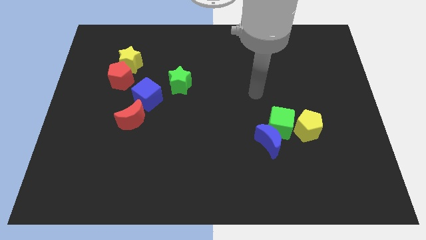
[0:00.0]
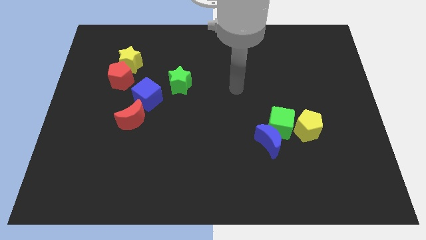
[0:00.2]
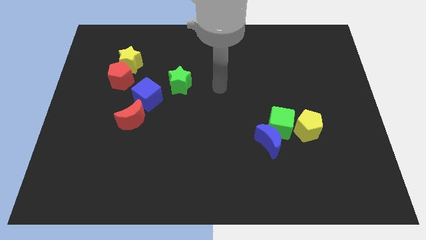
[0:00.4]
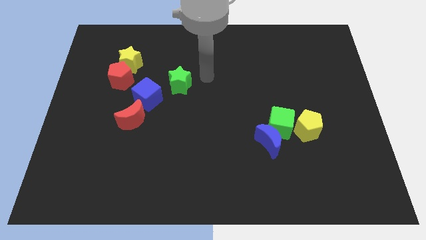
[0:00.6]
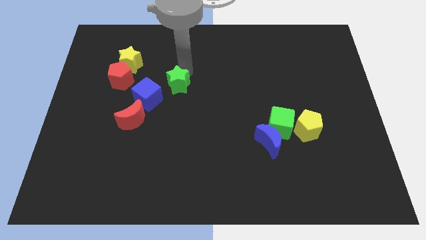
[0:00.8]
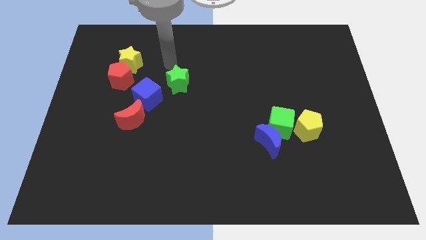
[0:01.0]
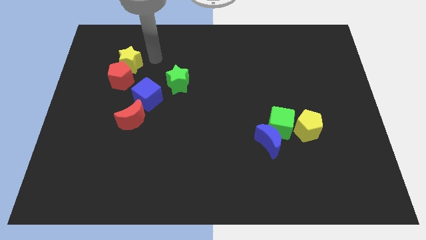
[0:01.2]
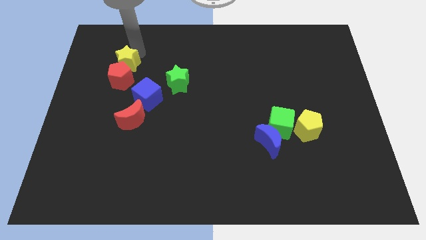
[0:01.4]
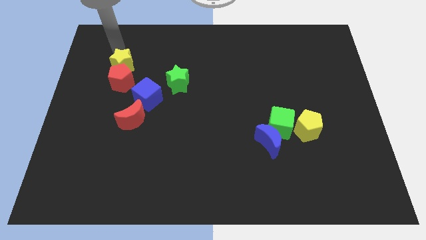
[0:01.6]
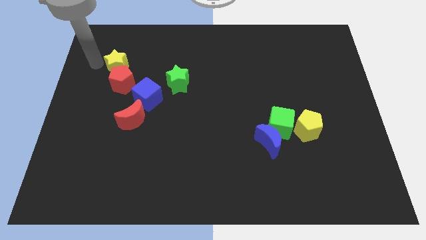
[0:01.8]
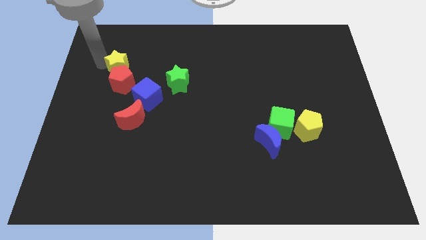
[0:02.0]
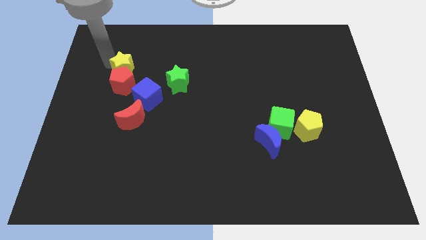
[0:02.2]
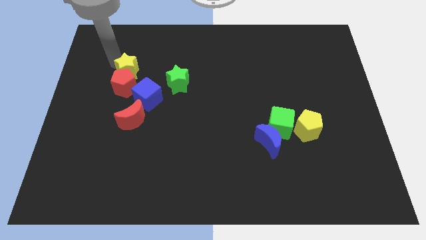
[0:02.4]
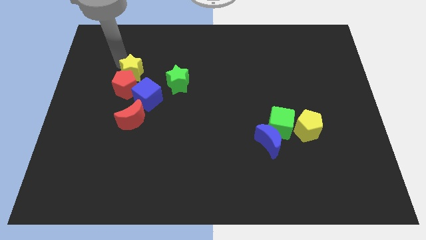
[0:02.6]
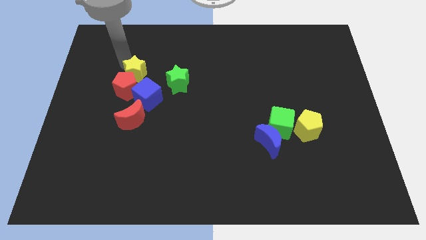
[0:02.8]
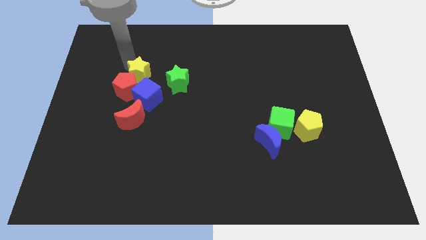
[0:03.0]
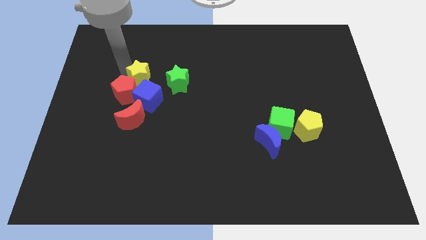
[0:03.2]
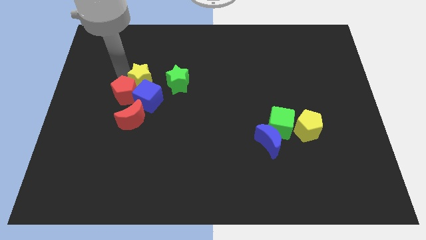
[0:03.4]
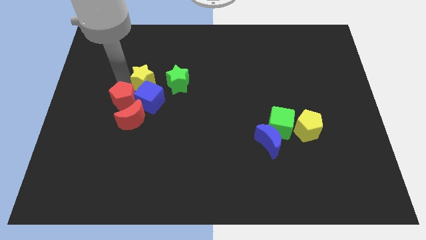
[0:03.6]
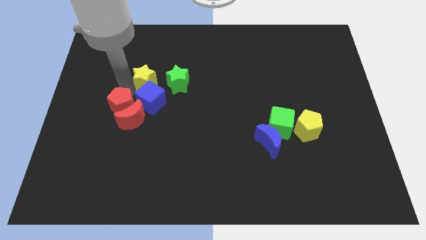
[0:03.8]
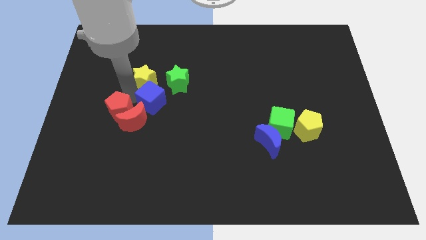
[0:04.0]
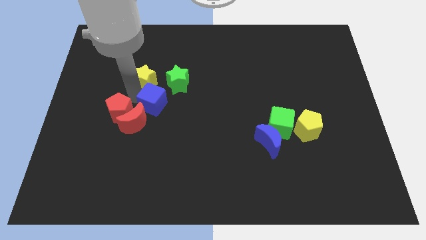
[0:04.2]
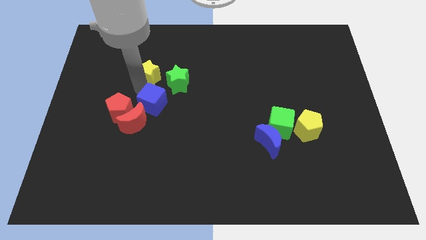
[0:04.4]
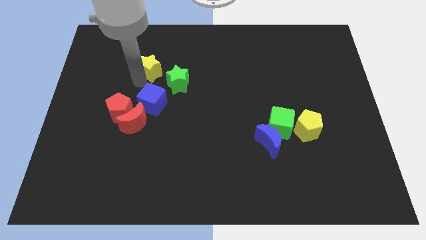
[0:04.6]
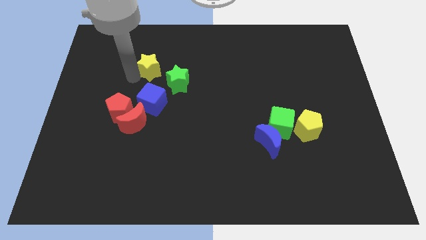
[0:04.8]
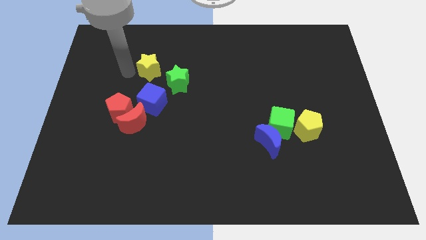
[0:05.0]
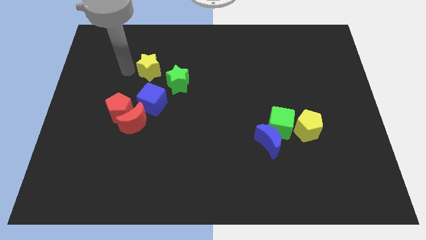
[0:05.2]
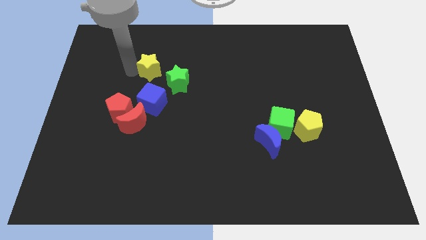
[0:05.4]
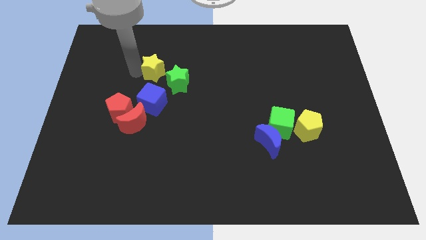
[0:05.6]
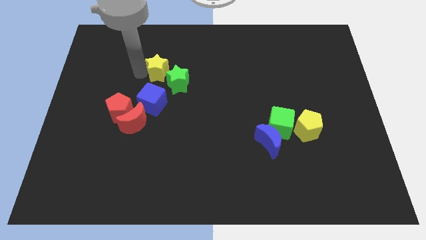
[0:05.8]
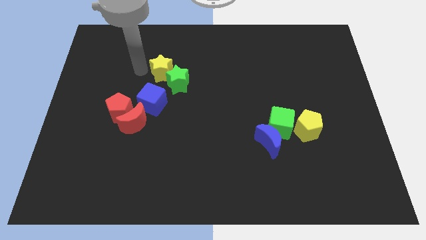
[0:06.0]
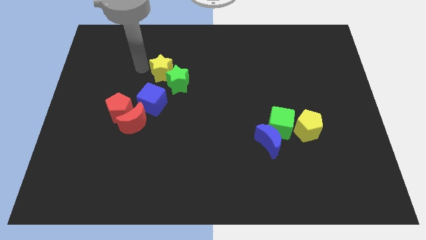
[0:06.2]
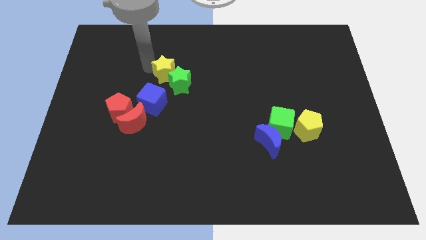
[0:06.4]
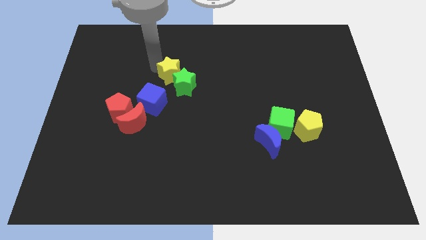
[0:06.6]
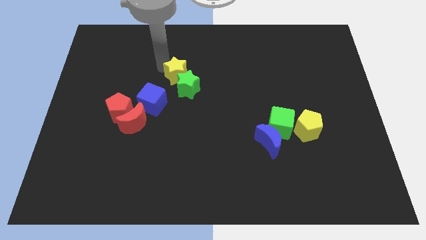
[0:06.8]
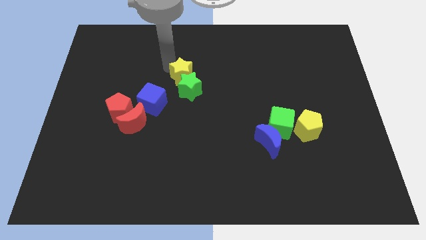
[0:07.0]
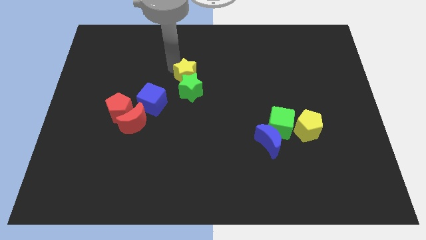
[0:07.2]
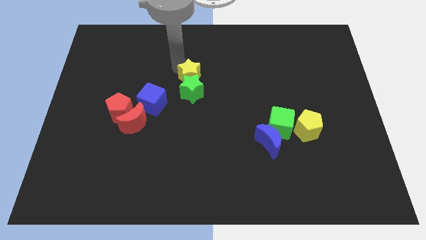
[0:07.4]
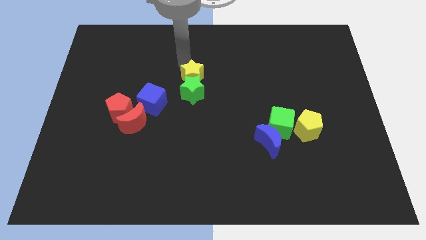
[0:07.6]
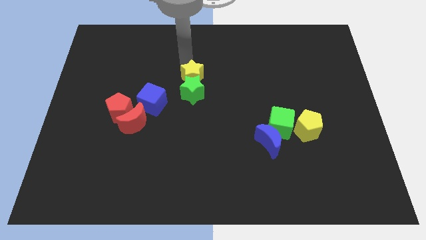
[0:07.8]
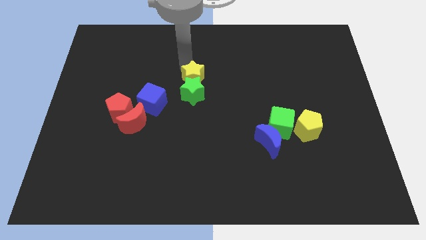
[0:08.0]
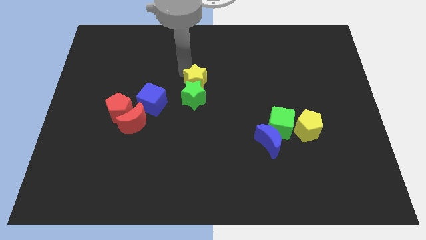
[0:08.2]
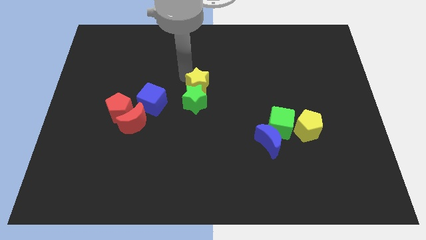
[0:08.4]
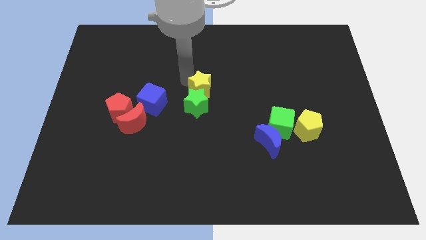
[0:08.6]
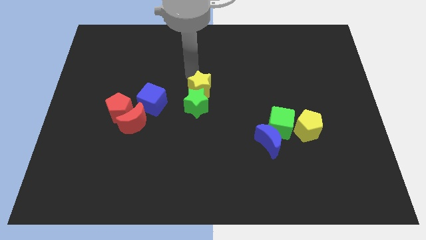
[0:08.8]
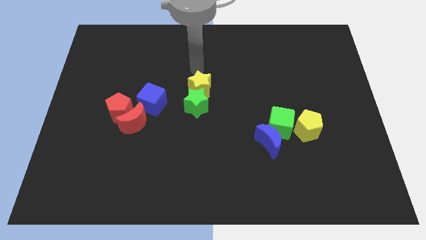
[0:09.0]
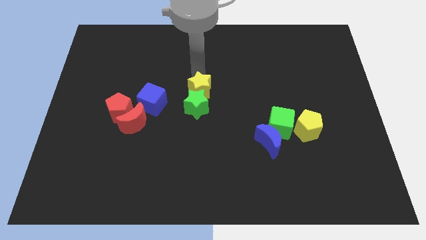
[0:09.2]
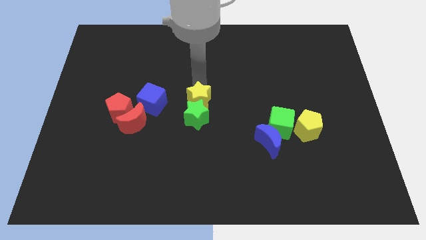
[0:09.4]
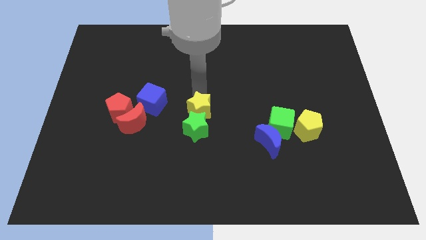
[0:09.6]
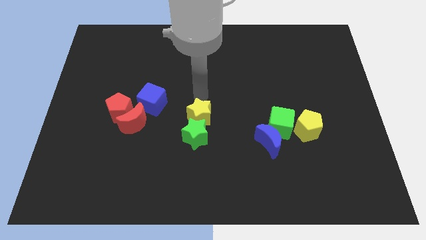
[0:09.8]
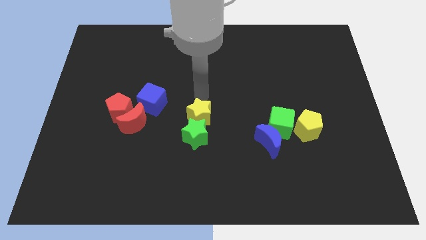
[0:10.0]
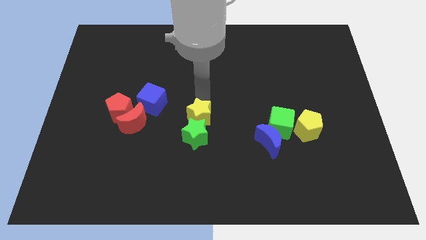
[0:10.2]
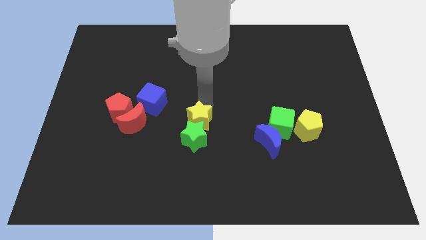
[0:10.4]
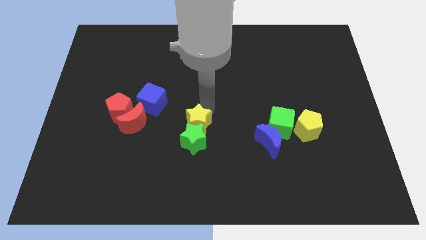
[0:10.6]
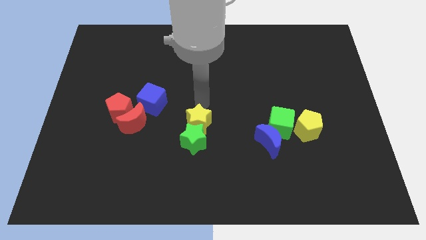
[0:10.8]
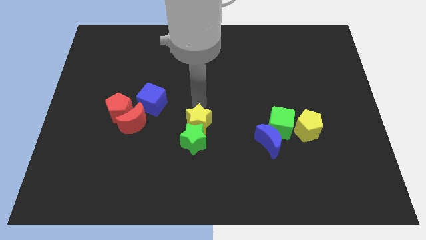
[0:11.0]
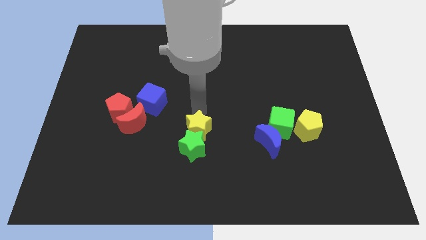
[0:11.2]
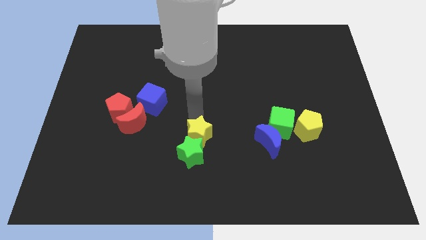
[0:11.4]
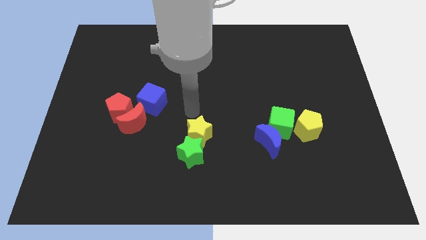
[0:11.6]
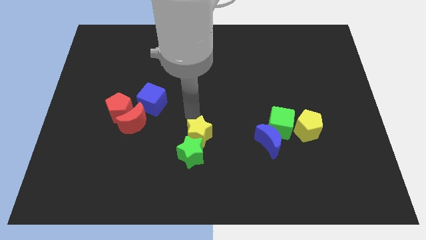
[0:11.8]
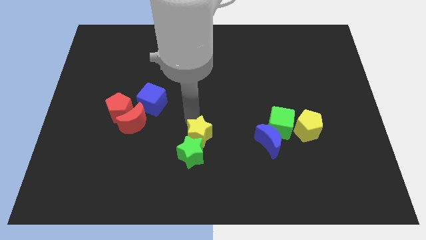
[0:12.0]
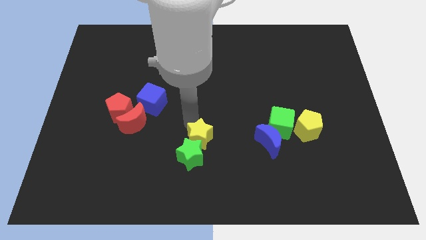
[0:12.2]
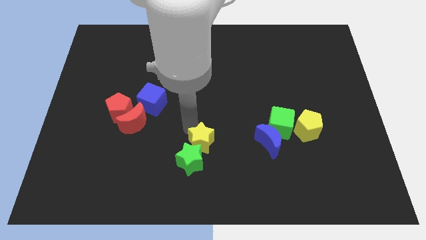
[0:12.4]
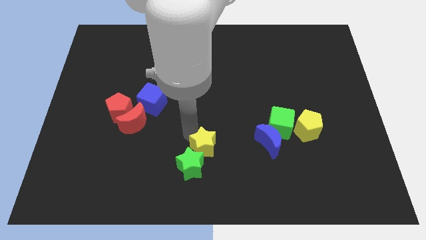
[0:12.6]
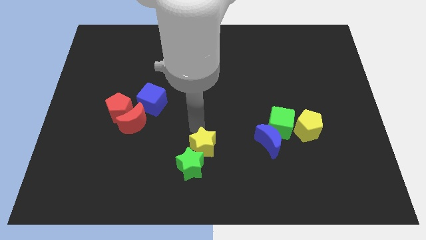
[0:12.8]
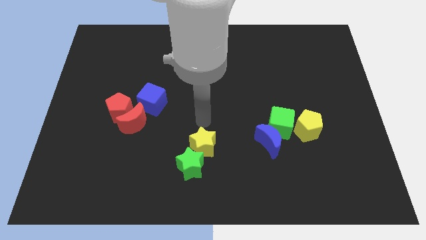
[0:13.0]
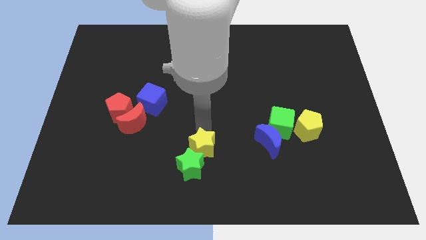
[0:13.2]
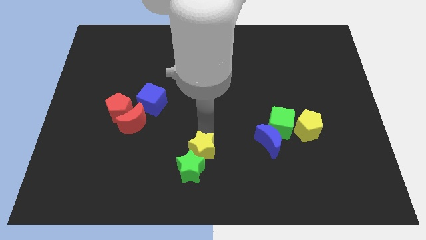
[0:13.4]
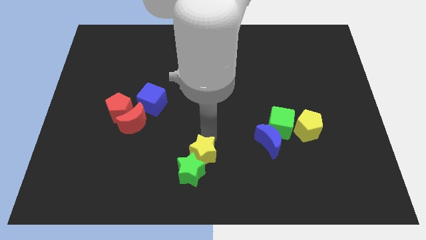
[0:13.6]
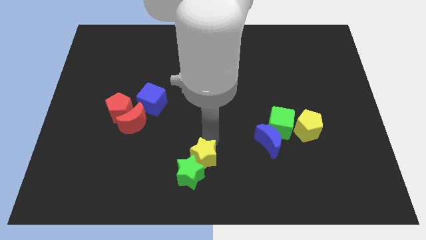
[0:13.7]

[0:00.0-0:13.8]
move the yellow star to the bottom
